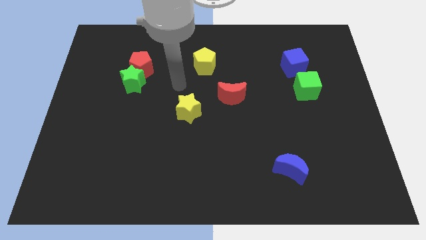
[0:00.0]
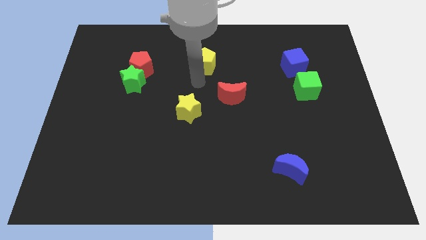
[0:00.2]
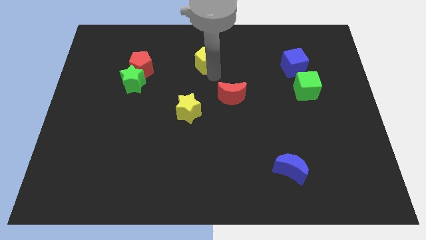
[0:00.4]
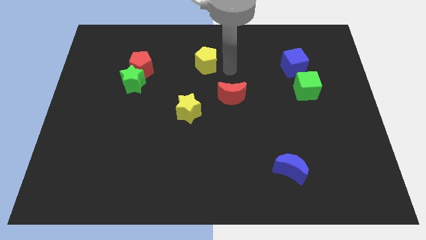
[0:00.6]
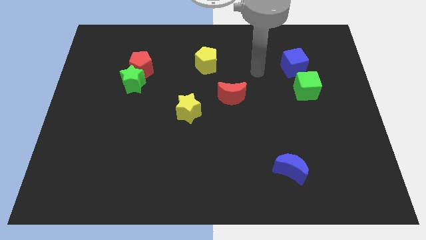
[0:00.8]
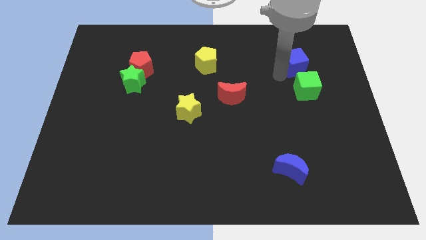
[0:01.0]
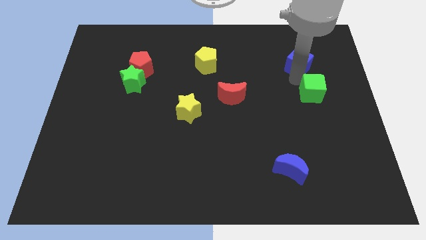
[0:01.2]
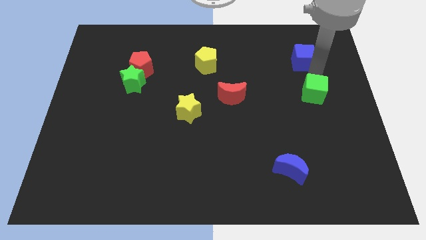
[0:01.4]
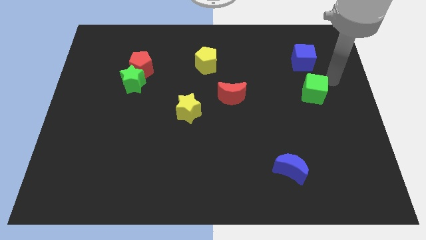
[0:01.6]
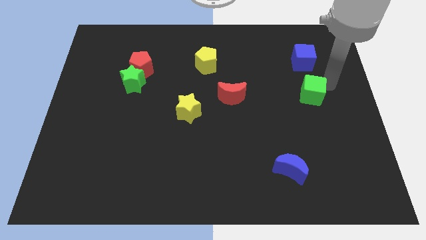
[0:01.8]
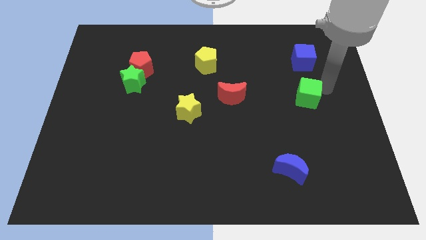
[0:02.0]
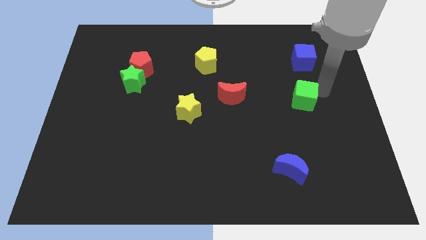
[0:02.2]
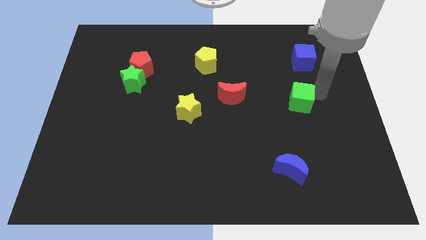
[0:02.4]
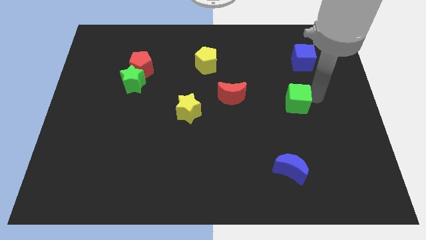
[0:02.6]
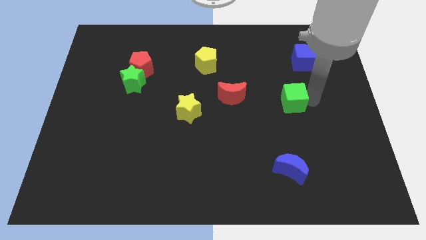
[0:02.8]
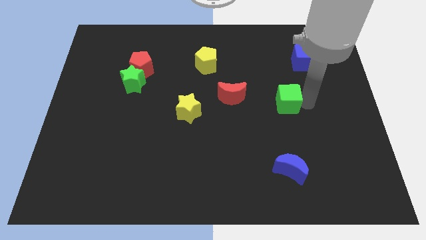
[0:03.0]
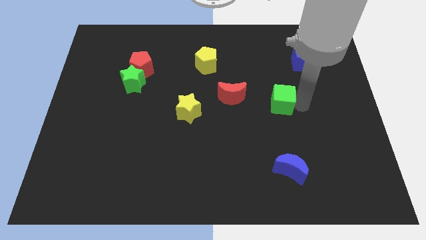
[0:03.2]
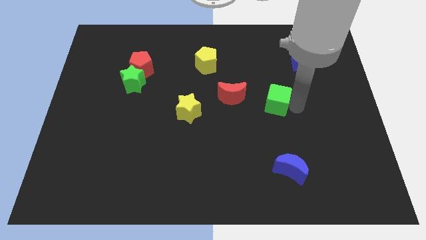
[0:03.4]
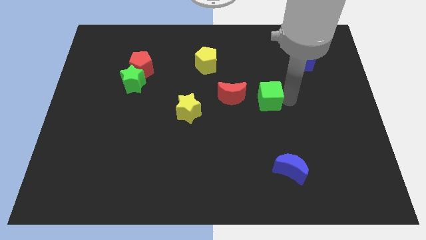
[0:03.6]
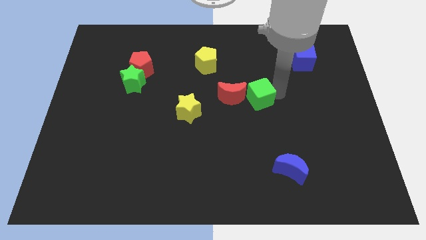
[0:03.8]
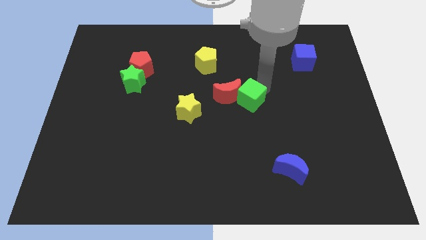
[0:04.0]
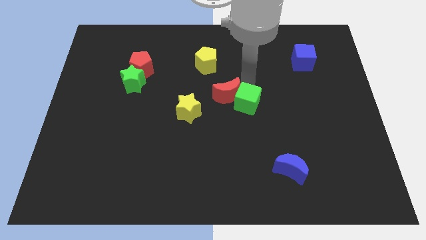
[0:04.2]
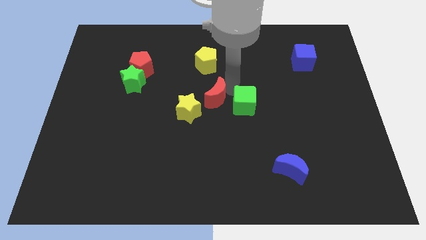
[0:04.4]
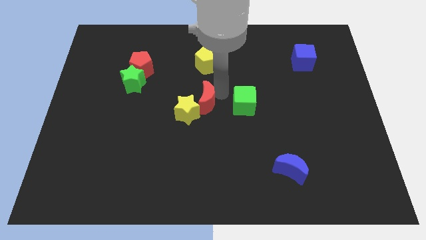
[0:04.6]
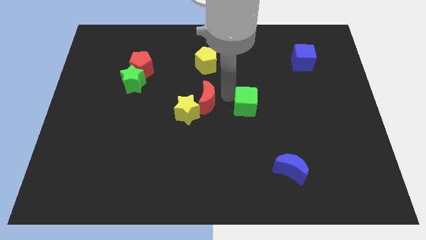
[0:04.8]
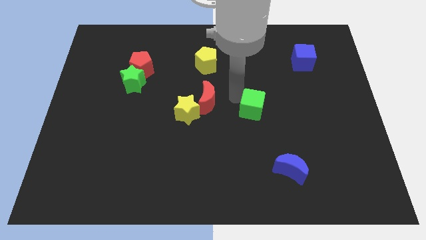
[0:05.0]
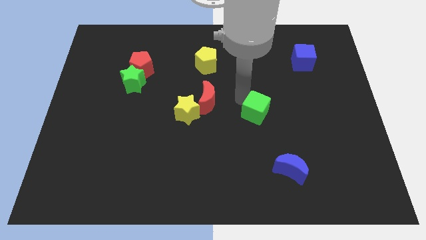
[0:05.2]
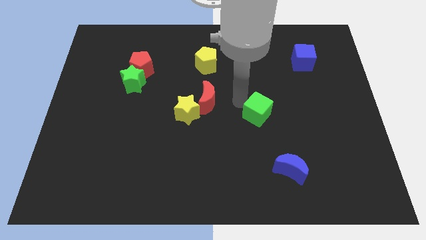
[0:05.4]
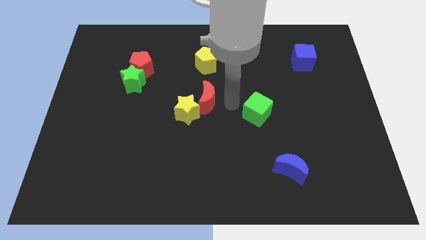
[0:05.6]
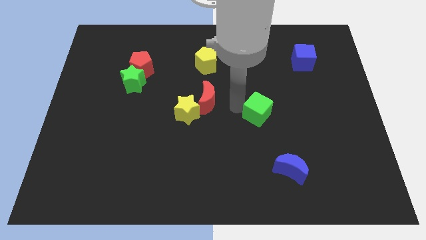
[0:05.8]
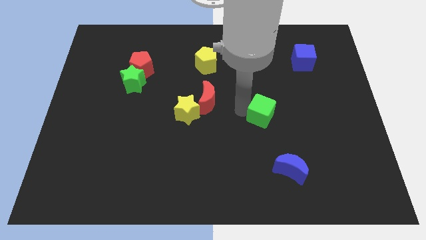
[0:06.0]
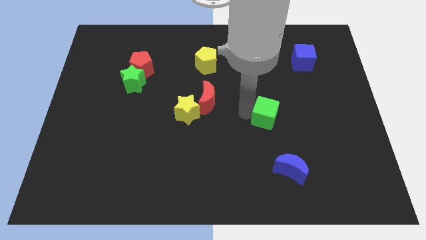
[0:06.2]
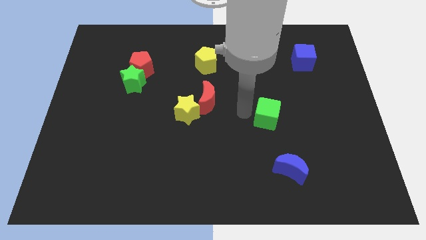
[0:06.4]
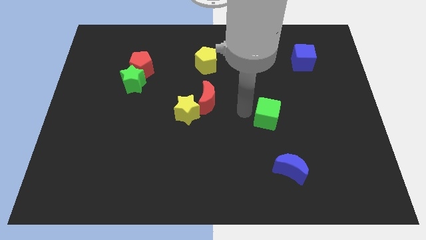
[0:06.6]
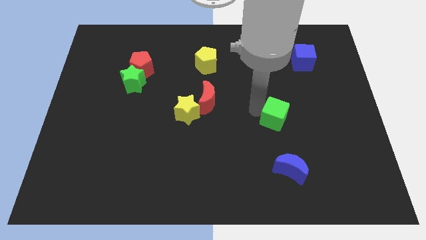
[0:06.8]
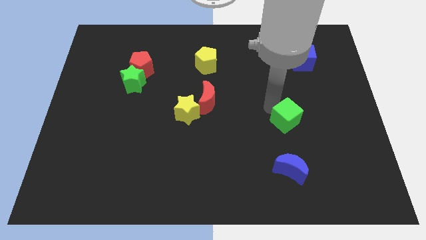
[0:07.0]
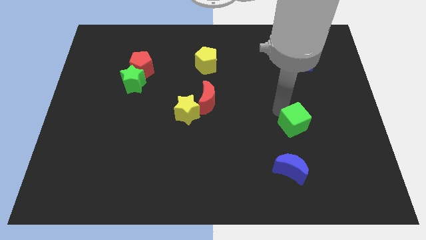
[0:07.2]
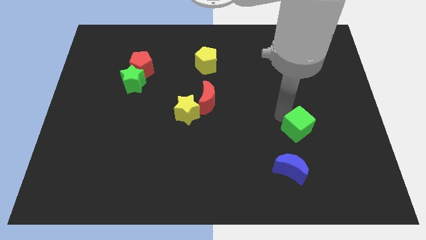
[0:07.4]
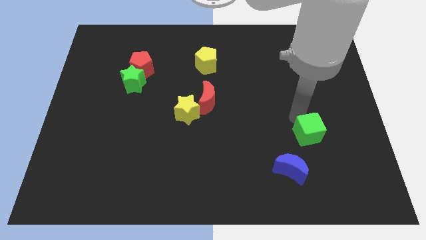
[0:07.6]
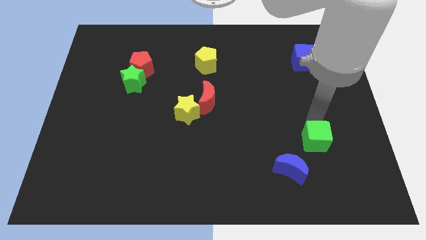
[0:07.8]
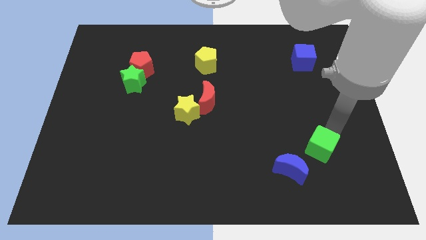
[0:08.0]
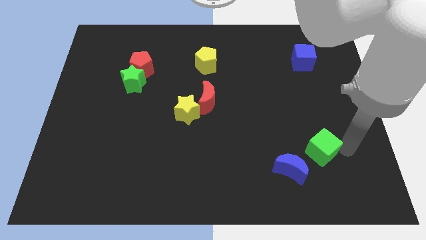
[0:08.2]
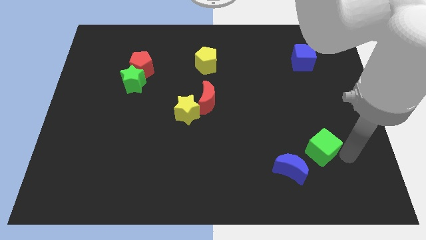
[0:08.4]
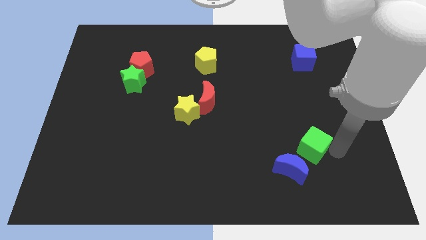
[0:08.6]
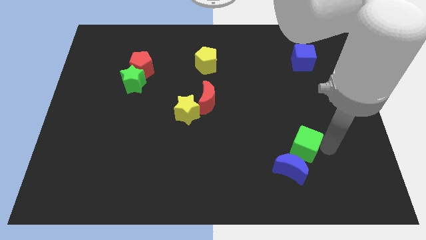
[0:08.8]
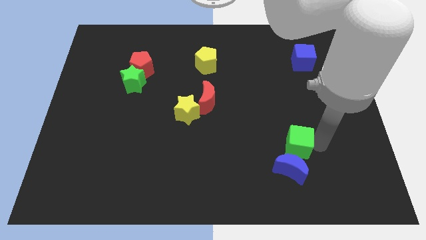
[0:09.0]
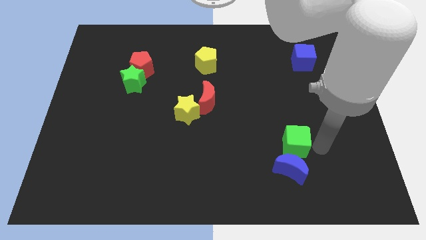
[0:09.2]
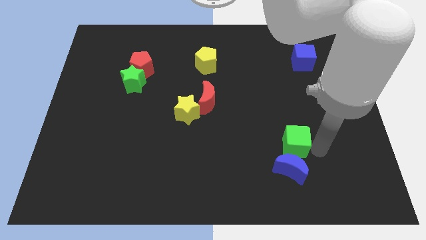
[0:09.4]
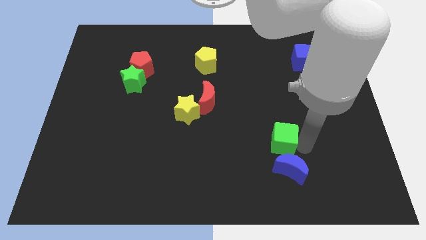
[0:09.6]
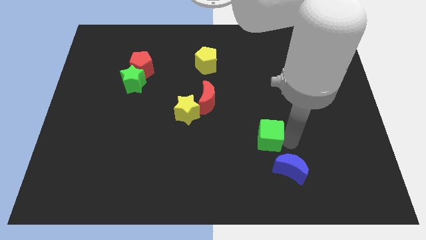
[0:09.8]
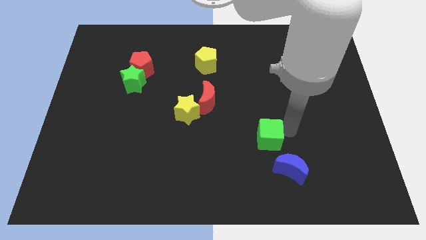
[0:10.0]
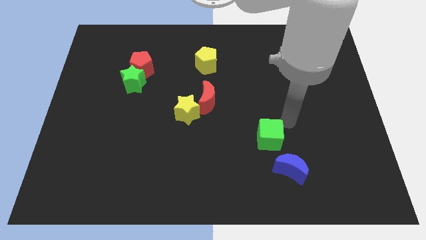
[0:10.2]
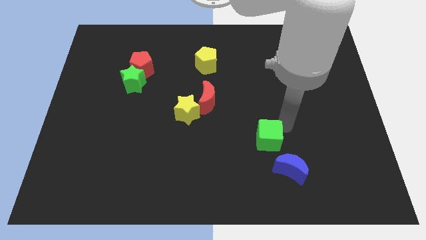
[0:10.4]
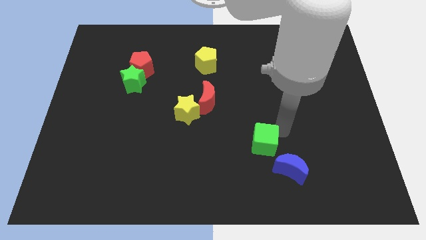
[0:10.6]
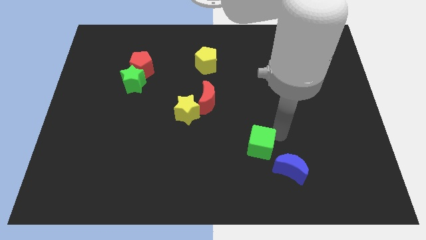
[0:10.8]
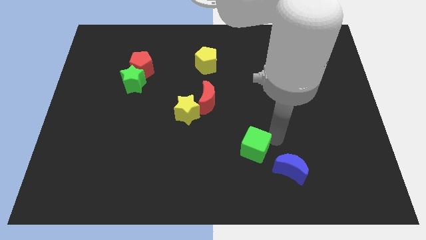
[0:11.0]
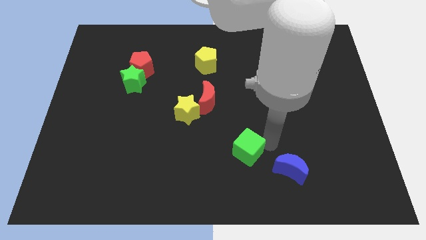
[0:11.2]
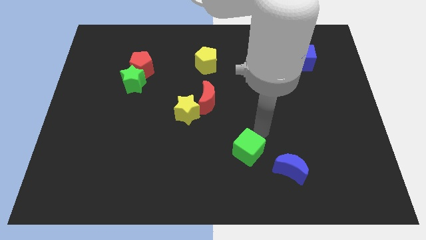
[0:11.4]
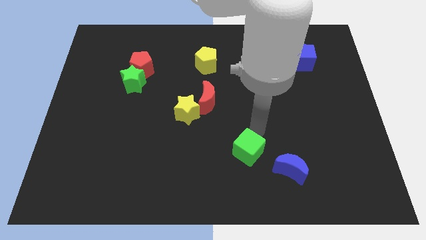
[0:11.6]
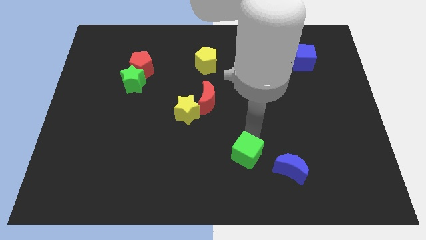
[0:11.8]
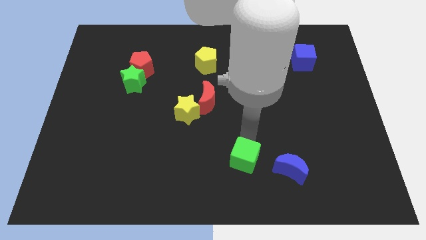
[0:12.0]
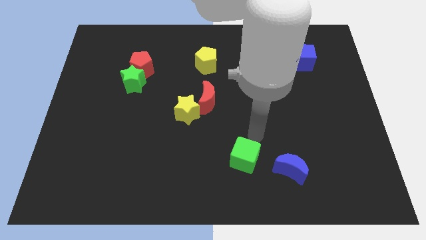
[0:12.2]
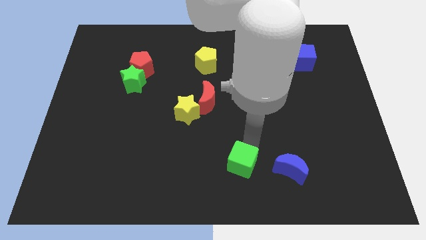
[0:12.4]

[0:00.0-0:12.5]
put the green cube to the bottom
